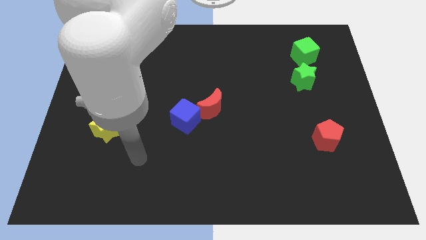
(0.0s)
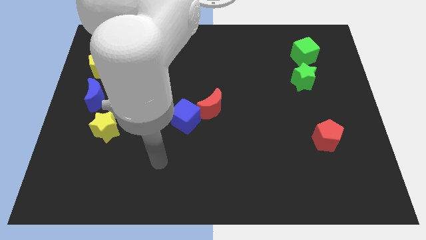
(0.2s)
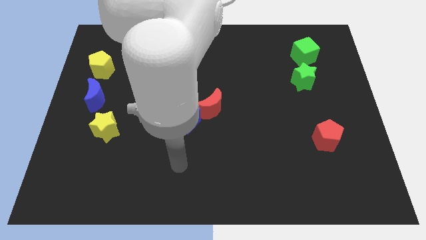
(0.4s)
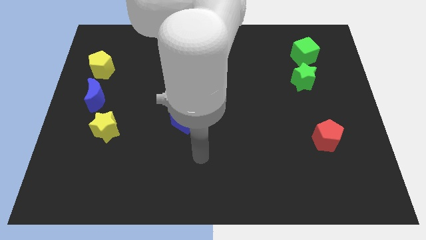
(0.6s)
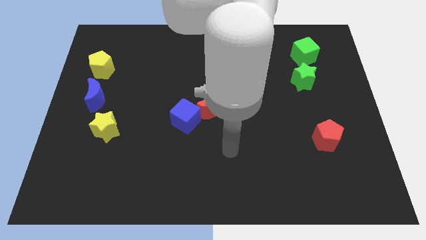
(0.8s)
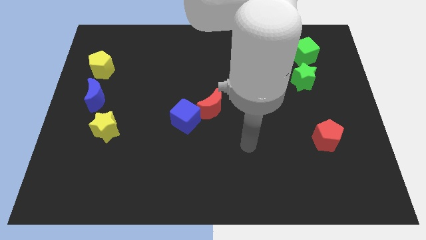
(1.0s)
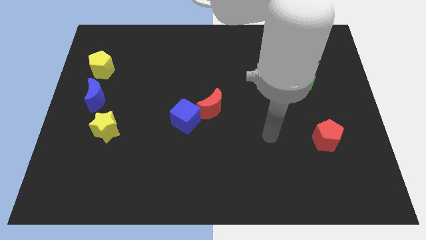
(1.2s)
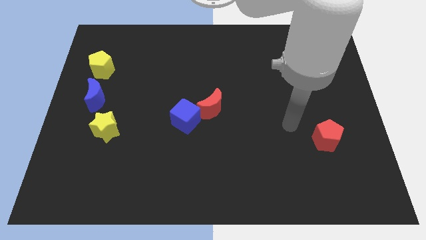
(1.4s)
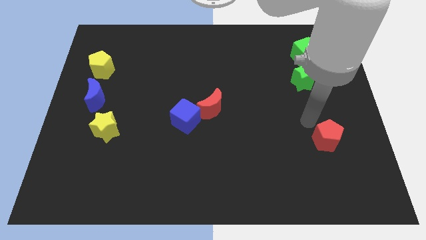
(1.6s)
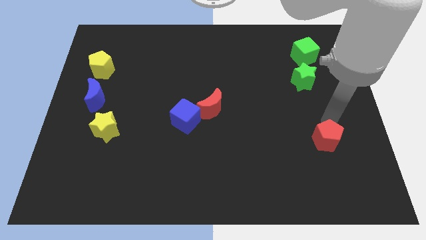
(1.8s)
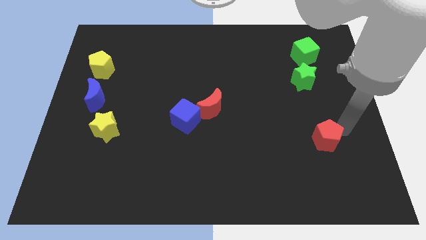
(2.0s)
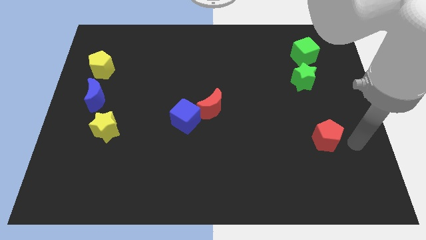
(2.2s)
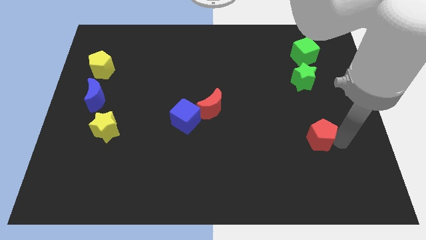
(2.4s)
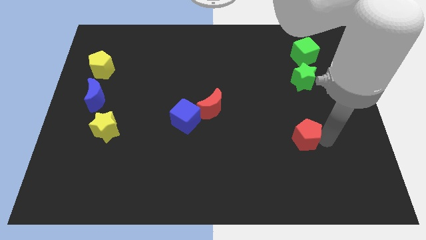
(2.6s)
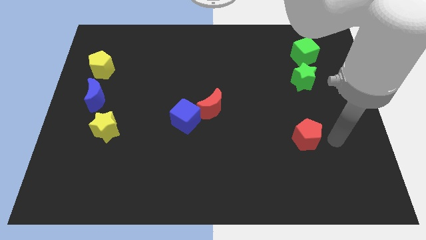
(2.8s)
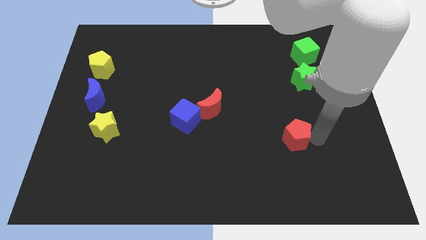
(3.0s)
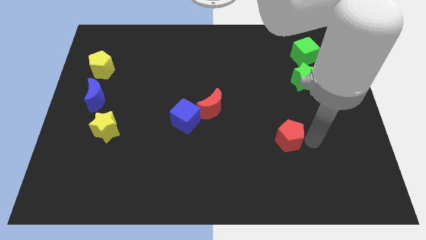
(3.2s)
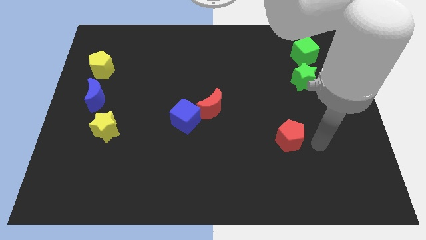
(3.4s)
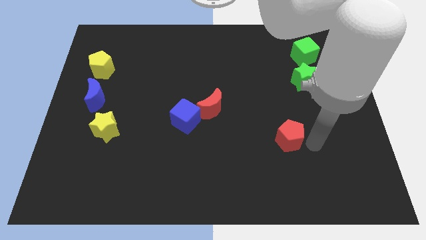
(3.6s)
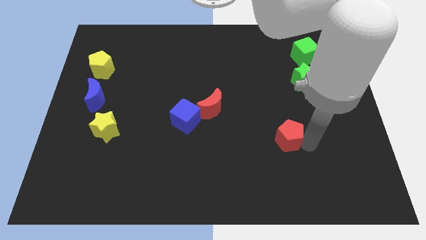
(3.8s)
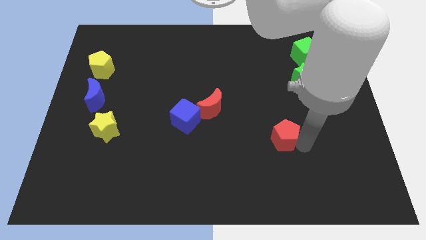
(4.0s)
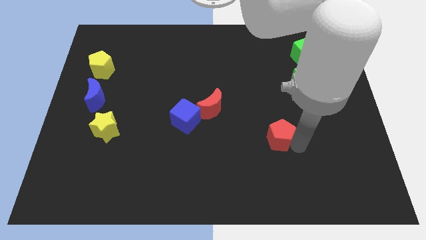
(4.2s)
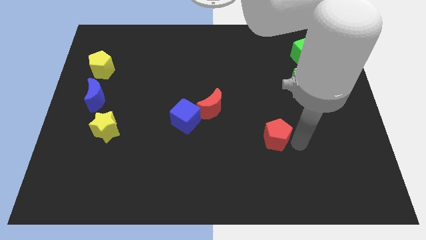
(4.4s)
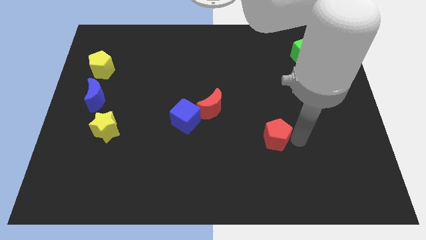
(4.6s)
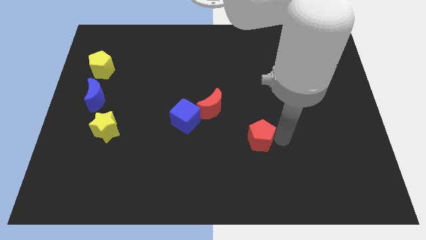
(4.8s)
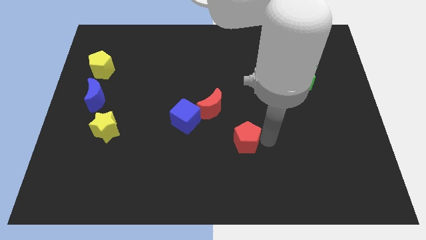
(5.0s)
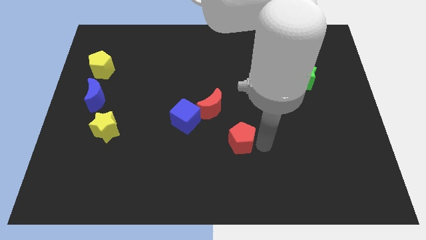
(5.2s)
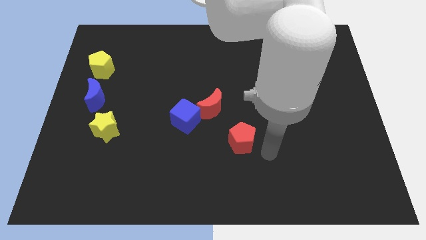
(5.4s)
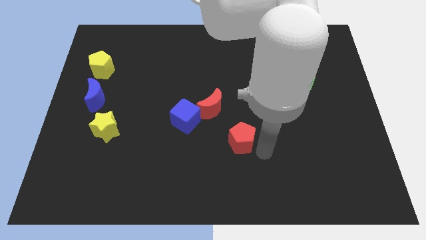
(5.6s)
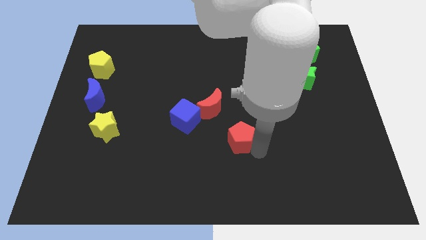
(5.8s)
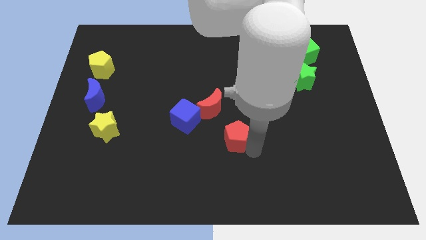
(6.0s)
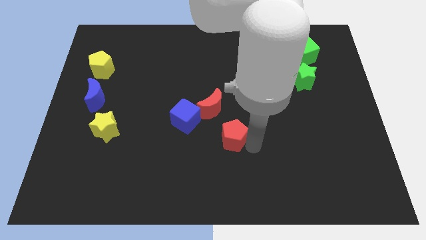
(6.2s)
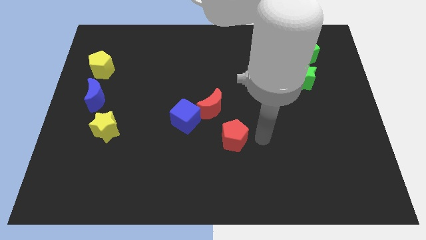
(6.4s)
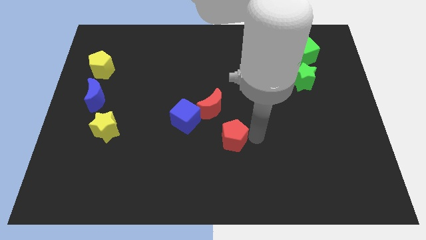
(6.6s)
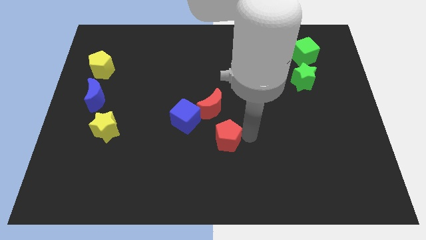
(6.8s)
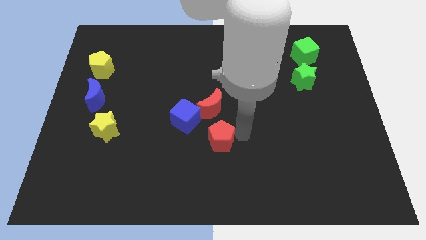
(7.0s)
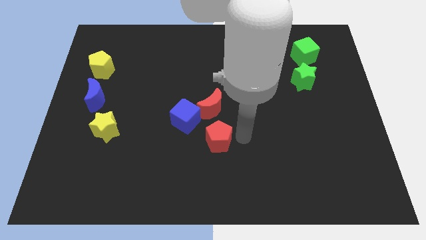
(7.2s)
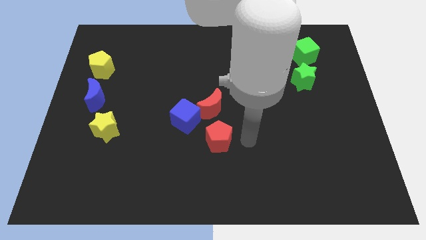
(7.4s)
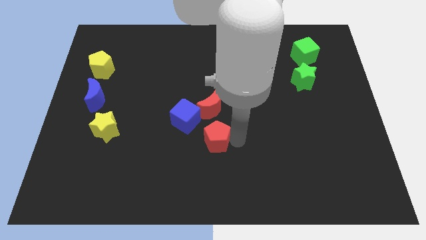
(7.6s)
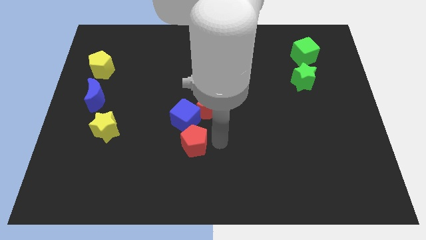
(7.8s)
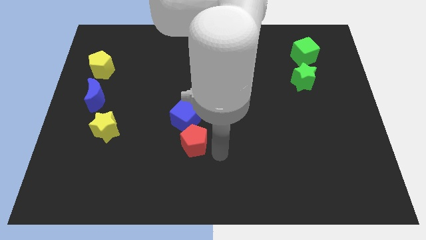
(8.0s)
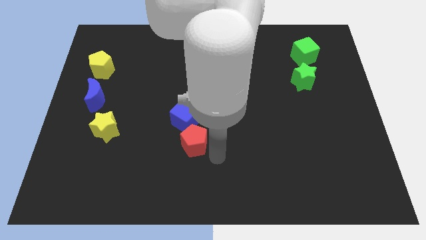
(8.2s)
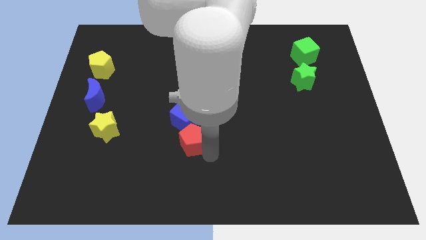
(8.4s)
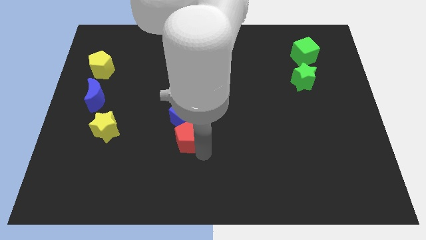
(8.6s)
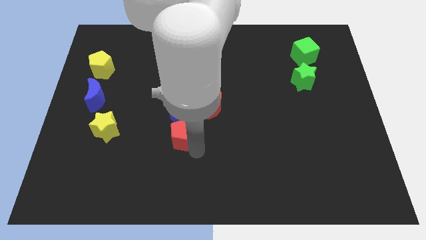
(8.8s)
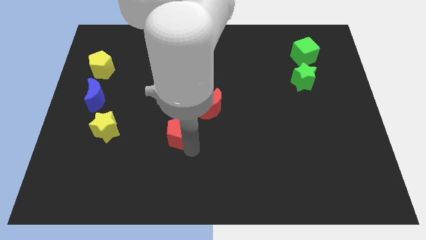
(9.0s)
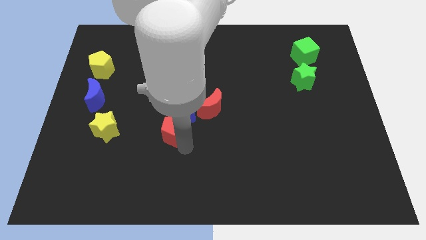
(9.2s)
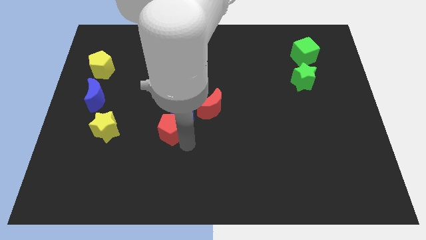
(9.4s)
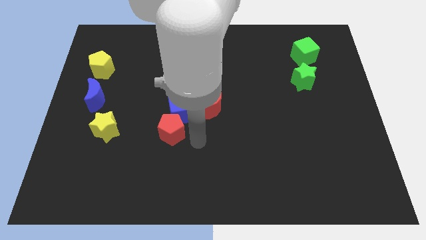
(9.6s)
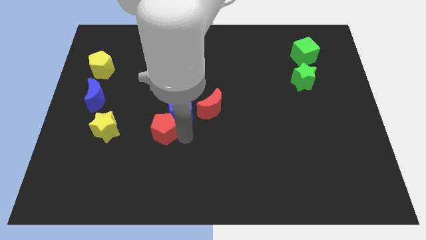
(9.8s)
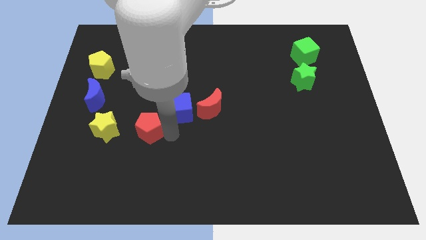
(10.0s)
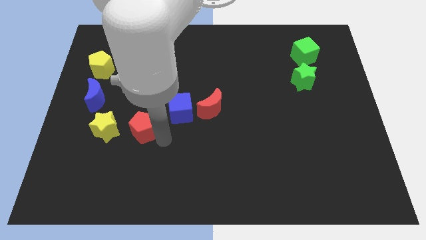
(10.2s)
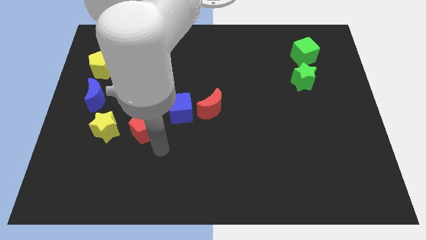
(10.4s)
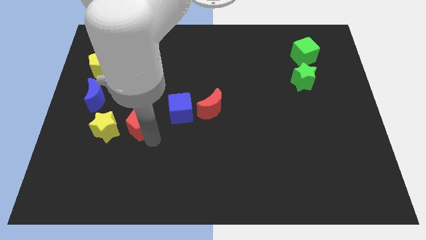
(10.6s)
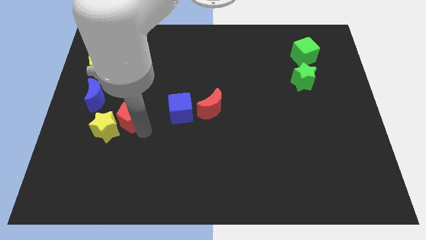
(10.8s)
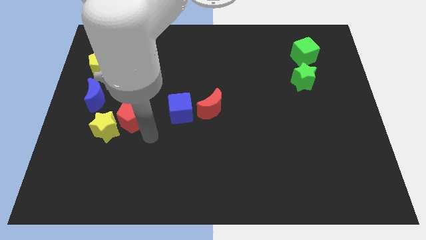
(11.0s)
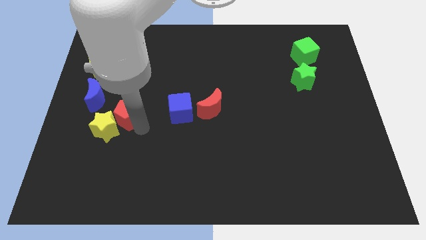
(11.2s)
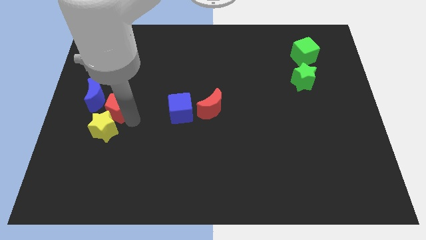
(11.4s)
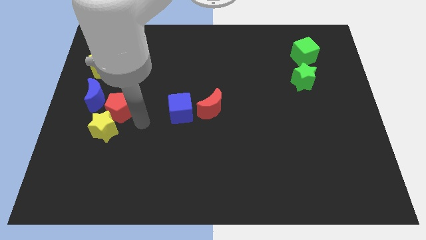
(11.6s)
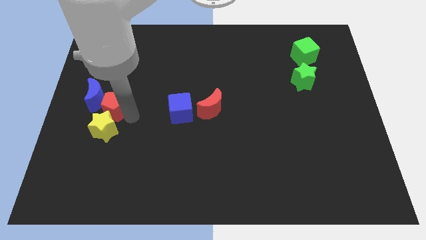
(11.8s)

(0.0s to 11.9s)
slide the red pentagon to the blue moon

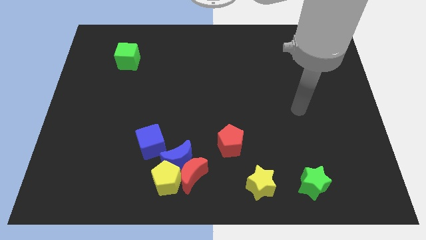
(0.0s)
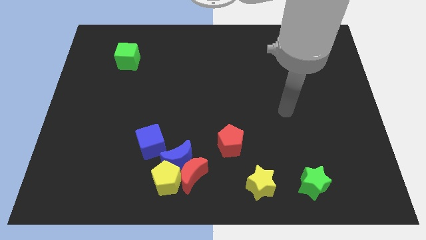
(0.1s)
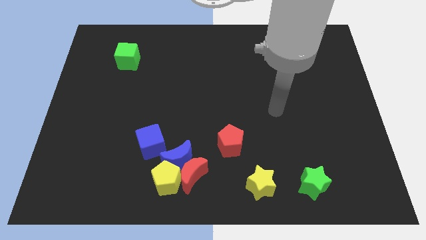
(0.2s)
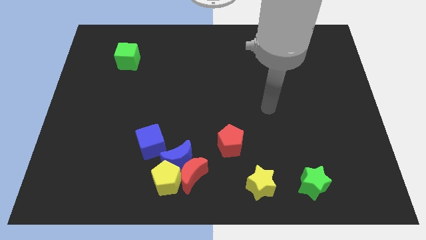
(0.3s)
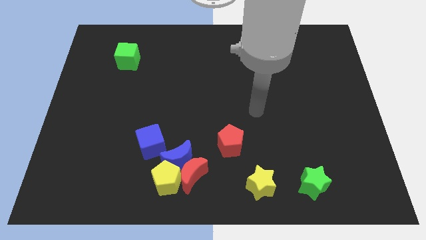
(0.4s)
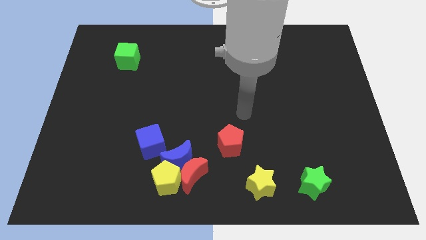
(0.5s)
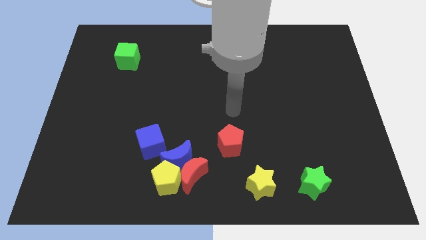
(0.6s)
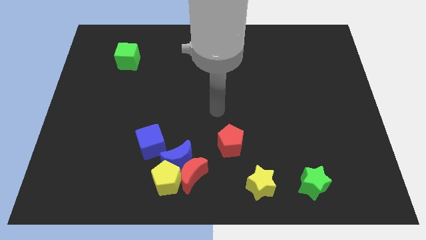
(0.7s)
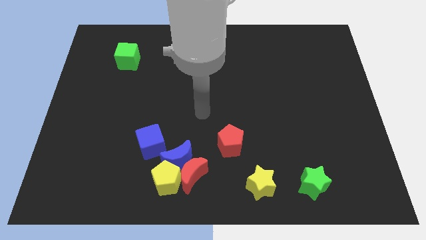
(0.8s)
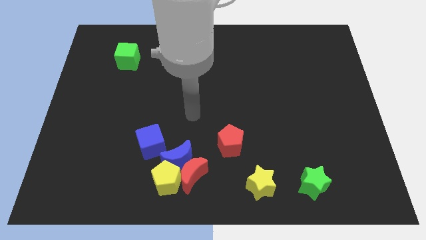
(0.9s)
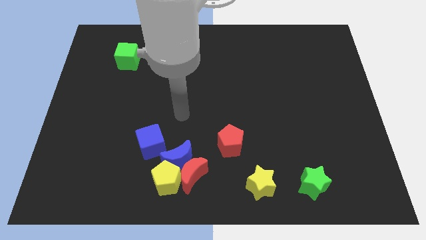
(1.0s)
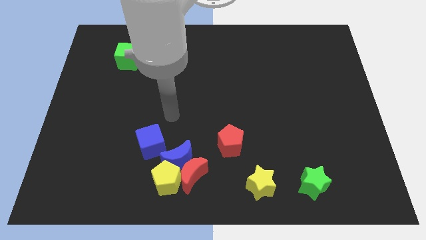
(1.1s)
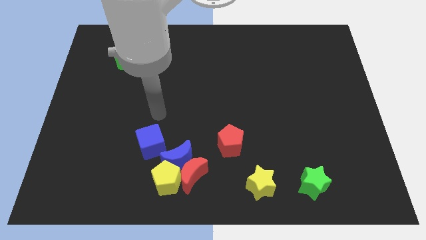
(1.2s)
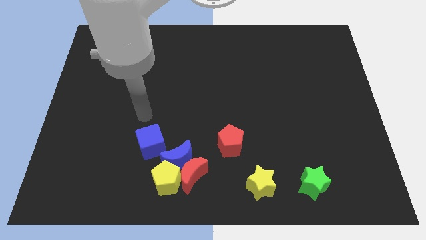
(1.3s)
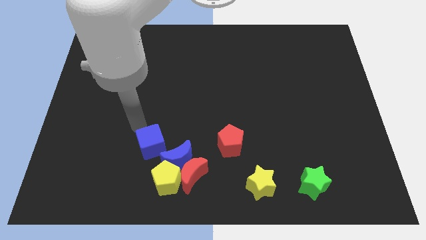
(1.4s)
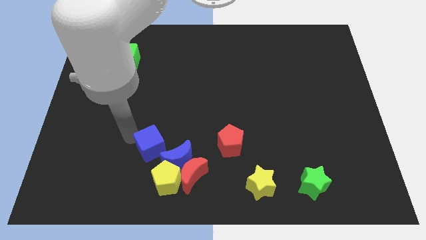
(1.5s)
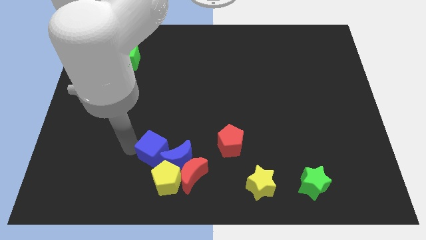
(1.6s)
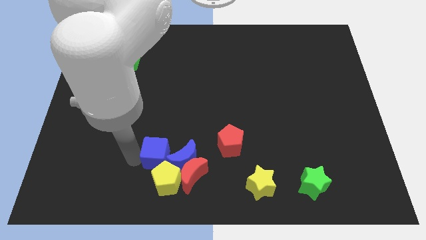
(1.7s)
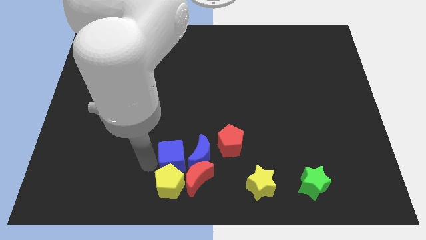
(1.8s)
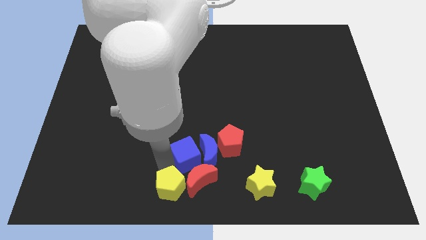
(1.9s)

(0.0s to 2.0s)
push the blue moon to the red pentagon
